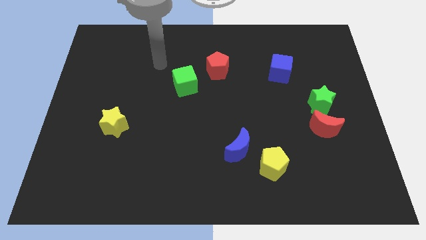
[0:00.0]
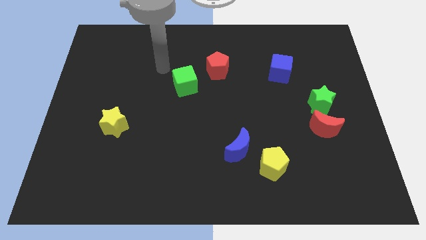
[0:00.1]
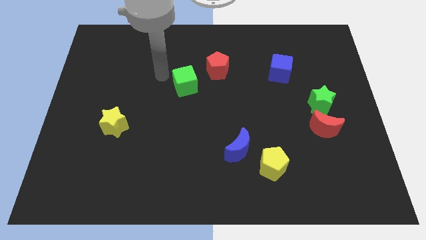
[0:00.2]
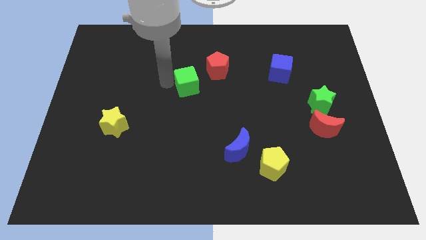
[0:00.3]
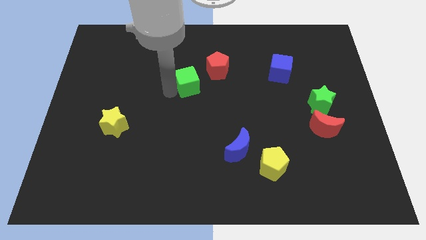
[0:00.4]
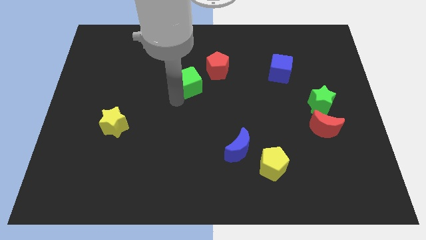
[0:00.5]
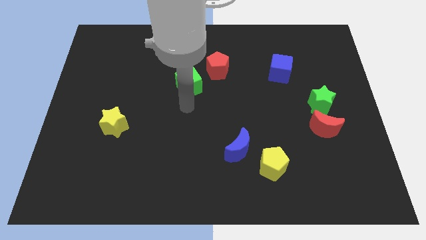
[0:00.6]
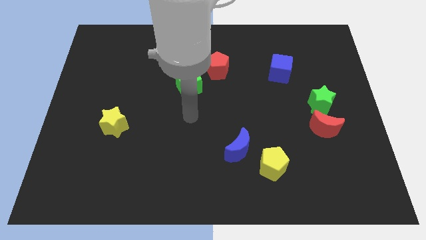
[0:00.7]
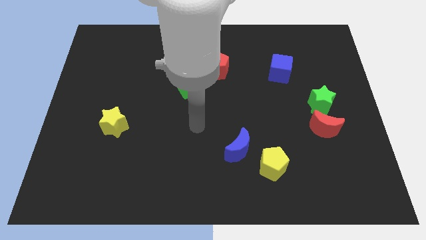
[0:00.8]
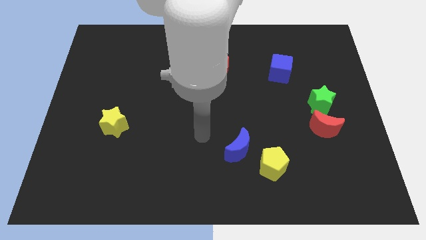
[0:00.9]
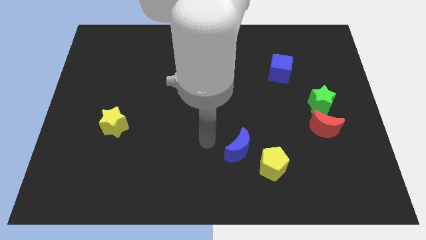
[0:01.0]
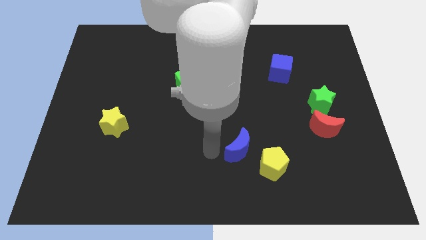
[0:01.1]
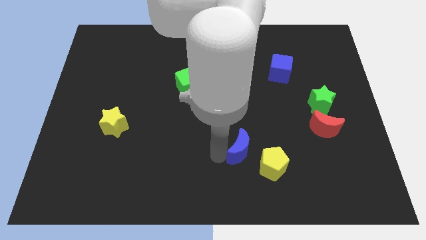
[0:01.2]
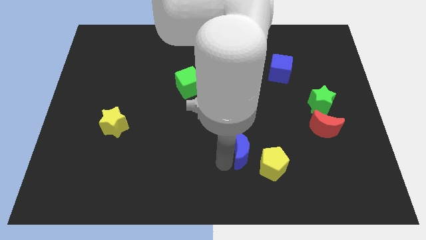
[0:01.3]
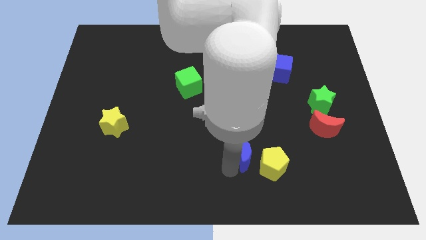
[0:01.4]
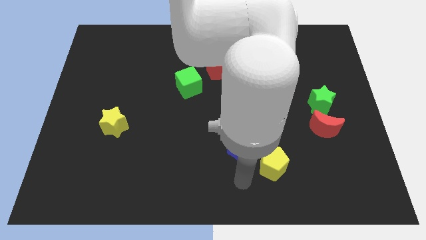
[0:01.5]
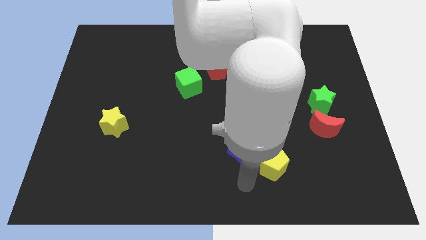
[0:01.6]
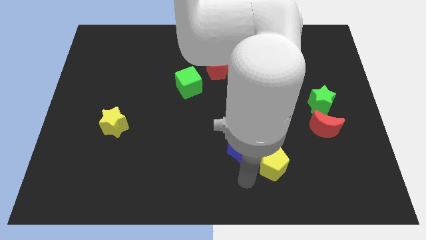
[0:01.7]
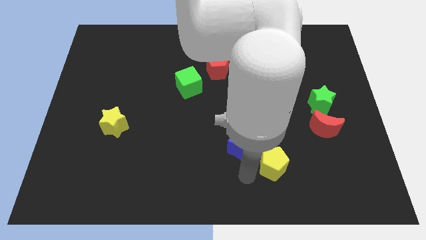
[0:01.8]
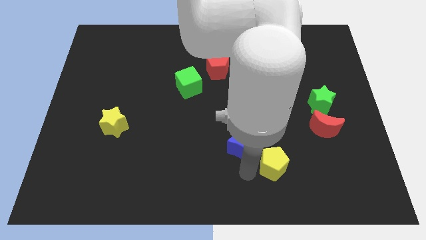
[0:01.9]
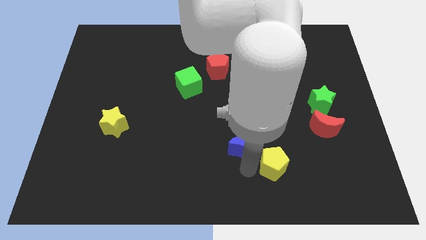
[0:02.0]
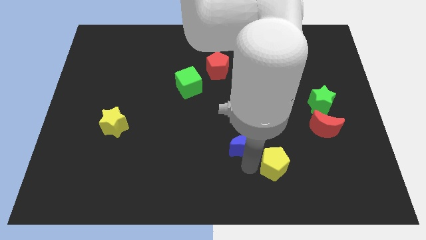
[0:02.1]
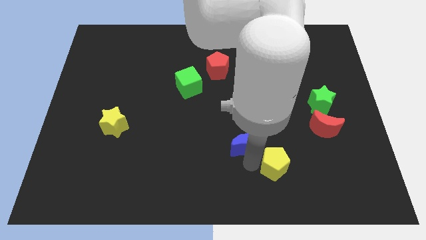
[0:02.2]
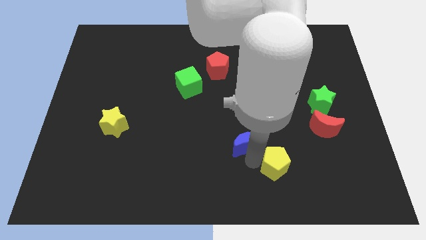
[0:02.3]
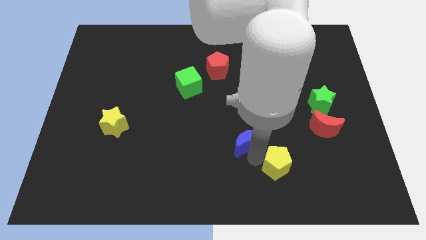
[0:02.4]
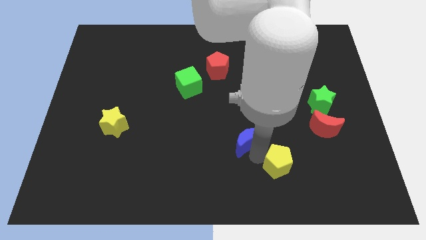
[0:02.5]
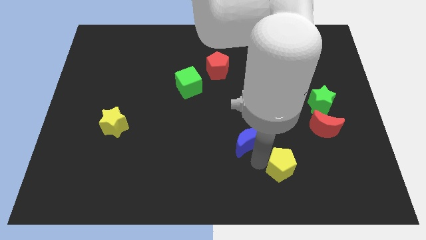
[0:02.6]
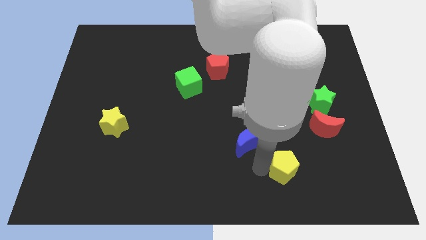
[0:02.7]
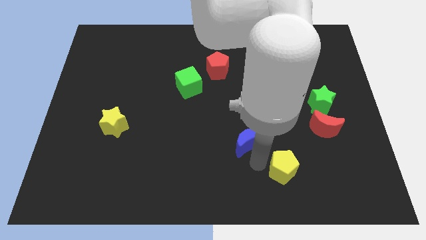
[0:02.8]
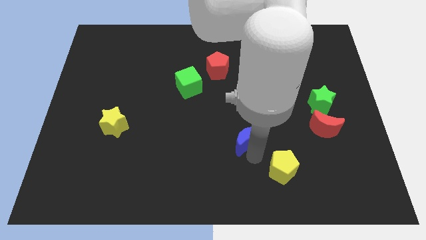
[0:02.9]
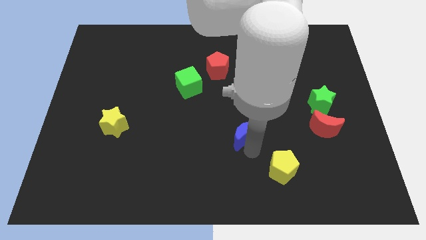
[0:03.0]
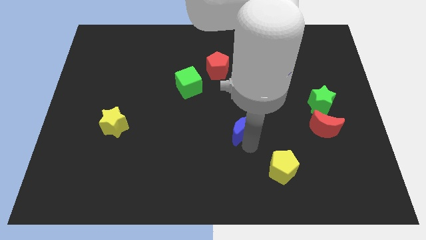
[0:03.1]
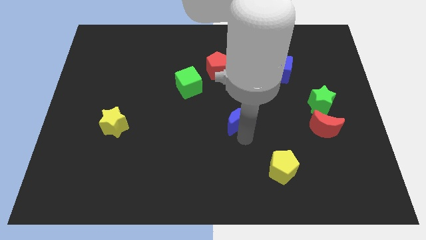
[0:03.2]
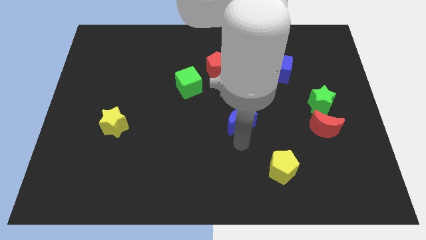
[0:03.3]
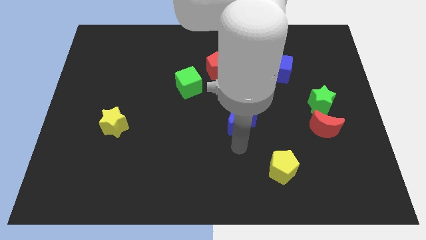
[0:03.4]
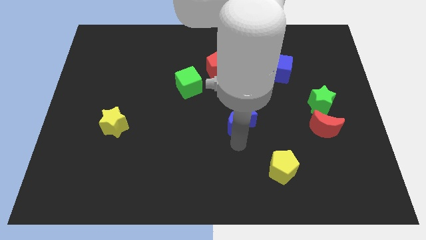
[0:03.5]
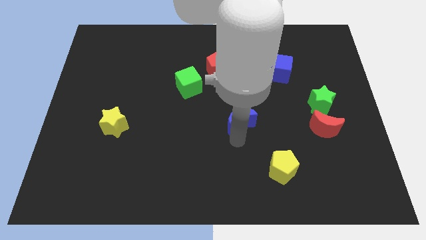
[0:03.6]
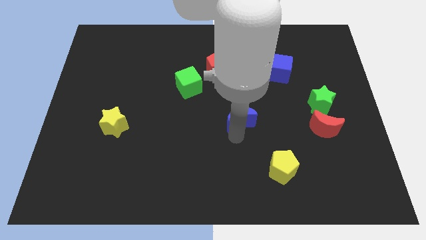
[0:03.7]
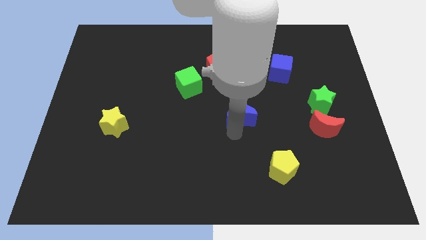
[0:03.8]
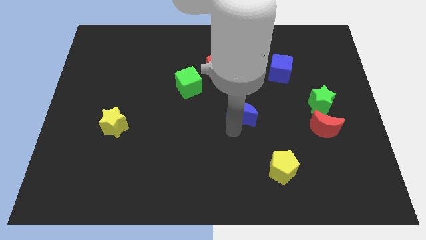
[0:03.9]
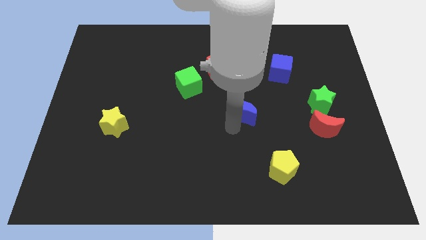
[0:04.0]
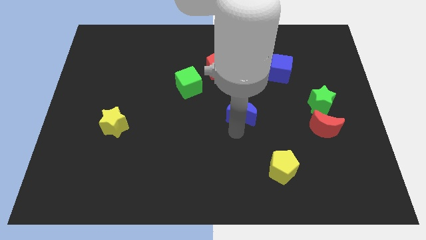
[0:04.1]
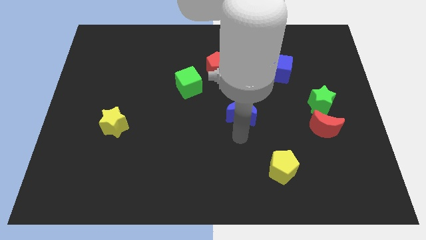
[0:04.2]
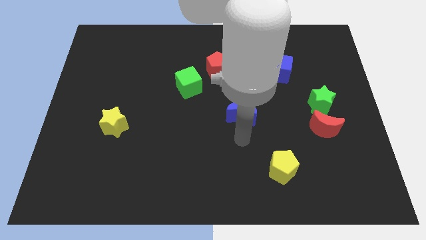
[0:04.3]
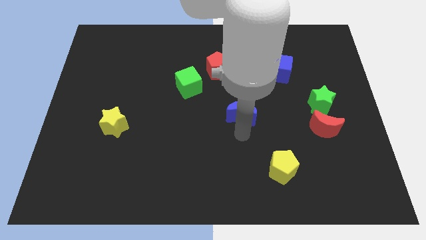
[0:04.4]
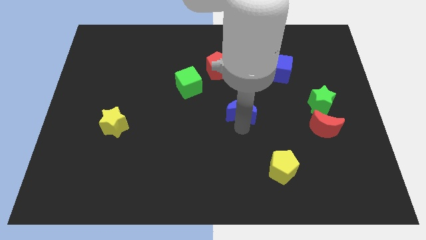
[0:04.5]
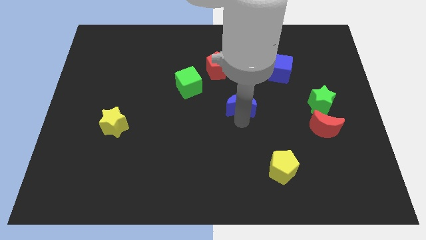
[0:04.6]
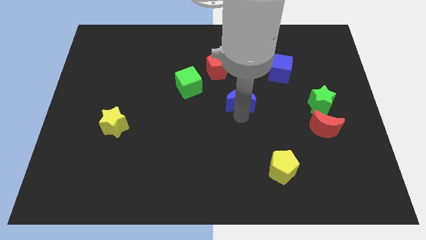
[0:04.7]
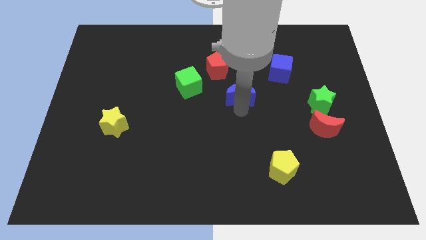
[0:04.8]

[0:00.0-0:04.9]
move the blue moon to the bottom right side of the red pentagon

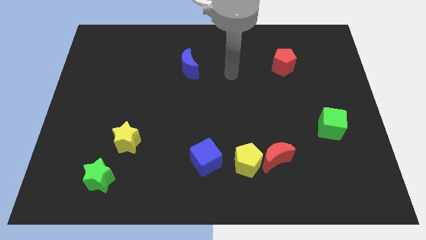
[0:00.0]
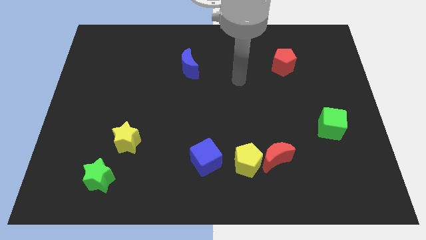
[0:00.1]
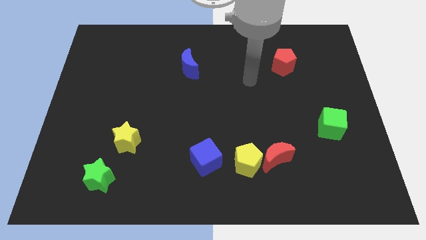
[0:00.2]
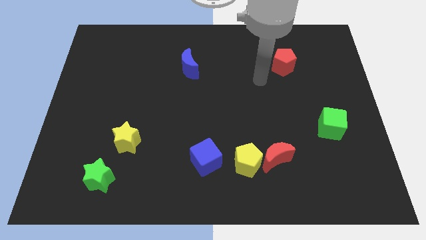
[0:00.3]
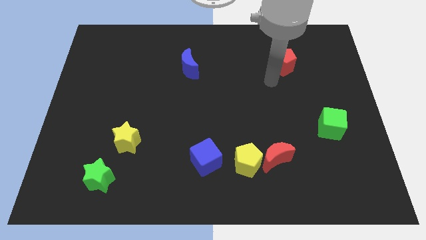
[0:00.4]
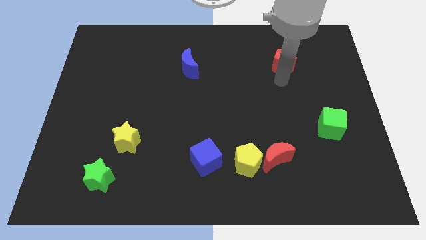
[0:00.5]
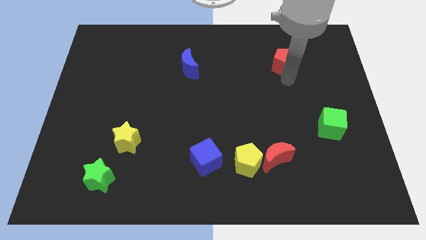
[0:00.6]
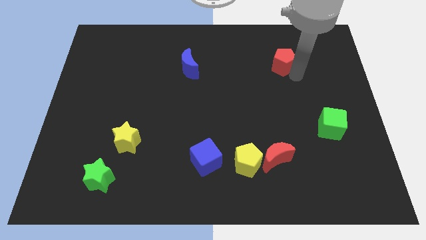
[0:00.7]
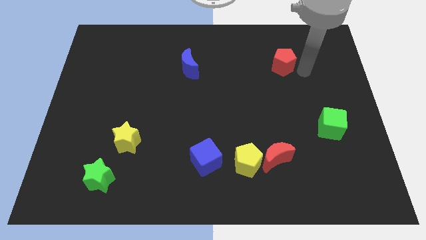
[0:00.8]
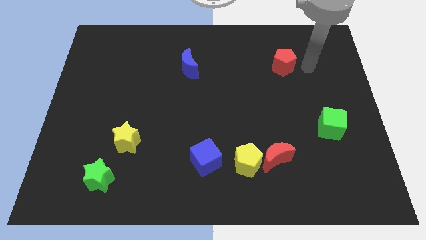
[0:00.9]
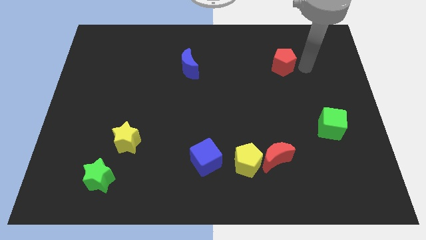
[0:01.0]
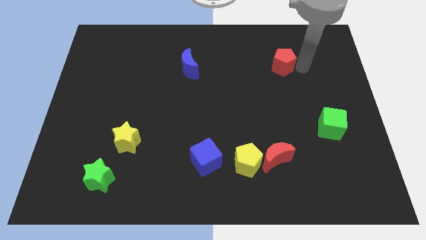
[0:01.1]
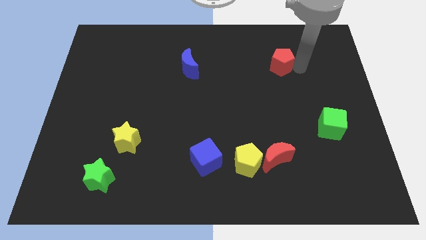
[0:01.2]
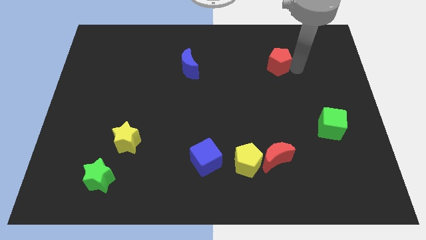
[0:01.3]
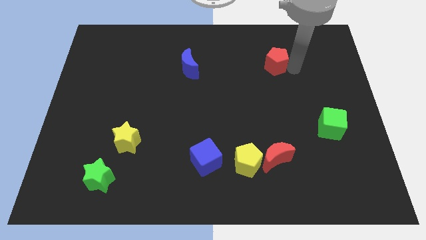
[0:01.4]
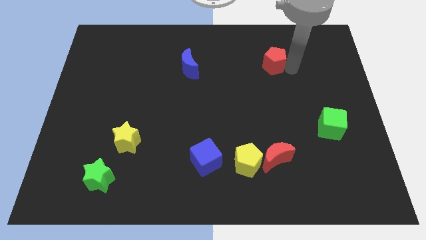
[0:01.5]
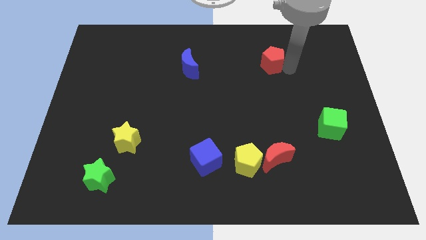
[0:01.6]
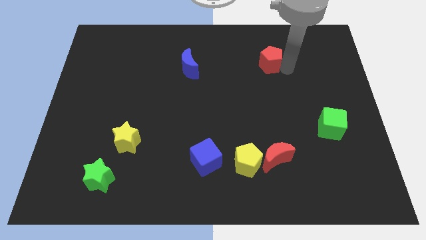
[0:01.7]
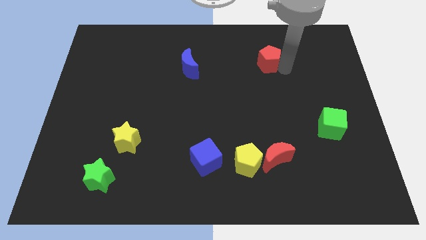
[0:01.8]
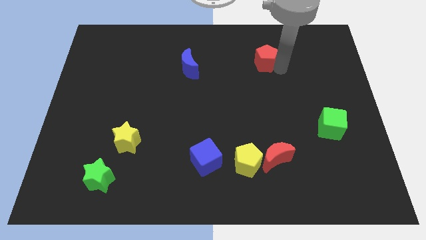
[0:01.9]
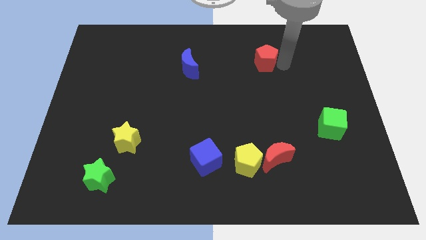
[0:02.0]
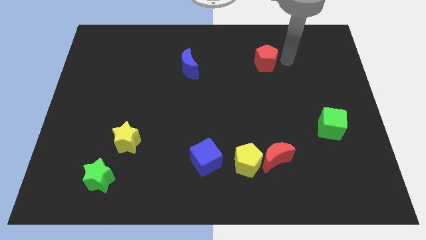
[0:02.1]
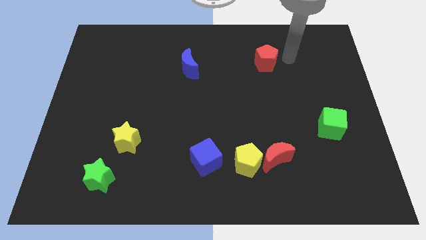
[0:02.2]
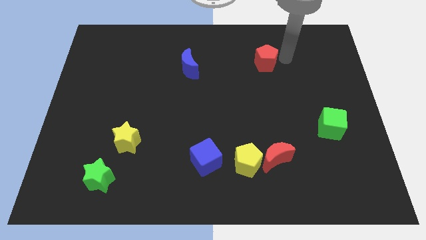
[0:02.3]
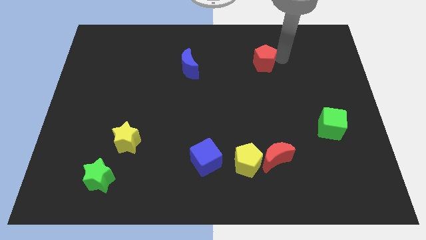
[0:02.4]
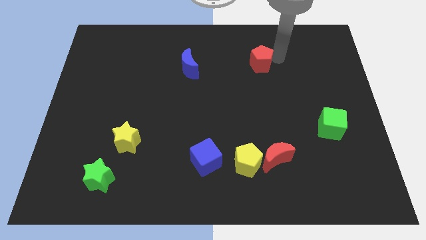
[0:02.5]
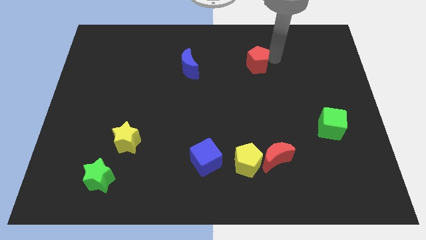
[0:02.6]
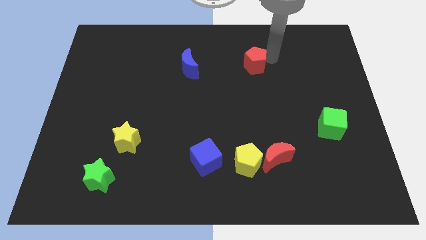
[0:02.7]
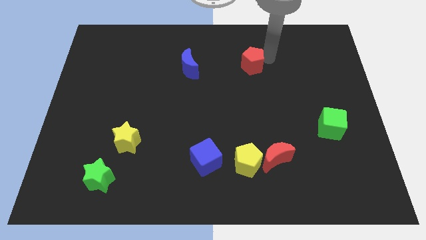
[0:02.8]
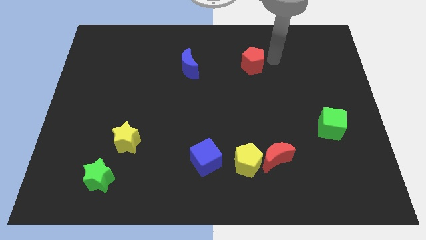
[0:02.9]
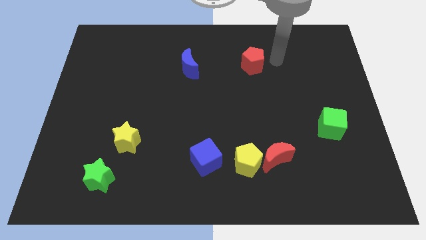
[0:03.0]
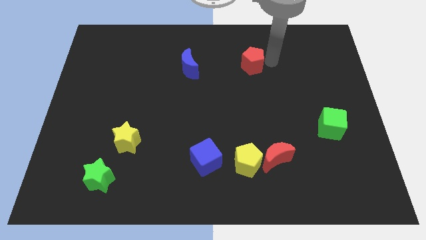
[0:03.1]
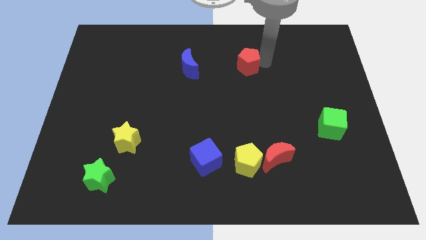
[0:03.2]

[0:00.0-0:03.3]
slide the red pentagon right of the blue moon
